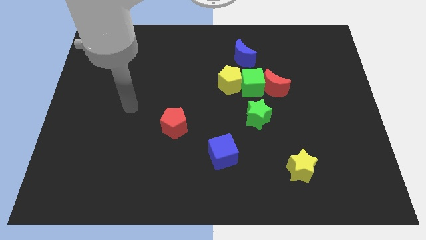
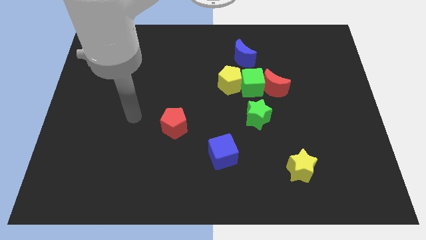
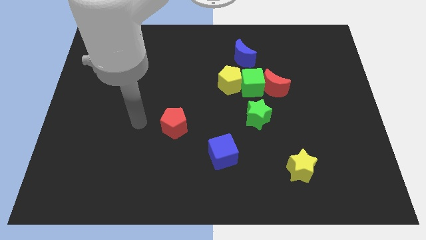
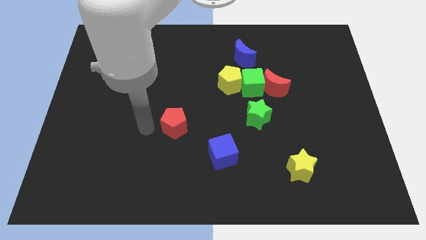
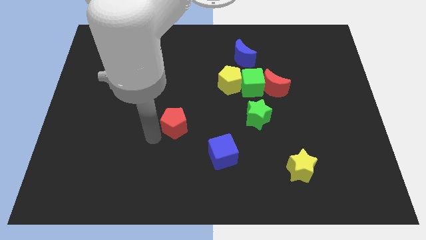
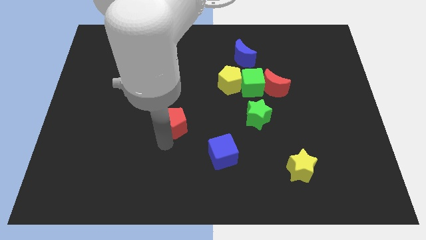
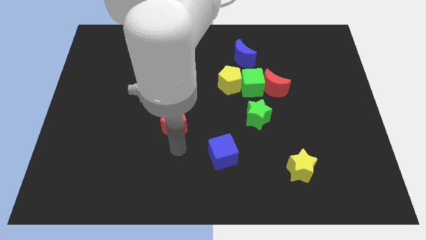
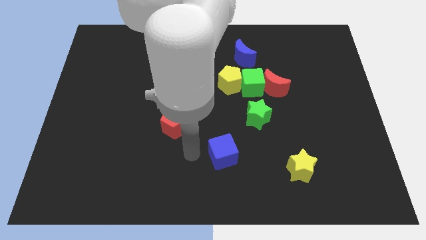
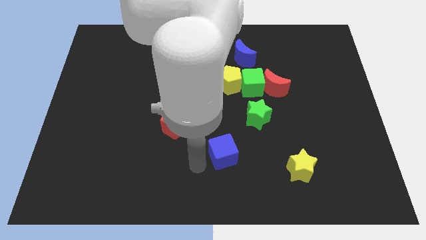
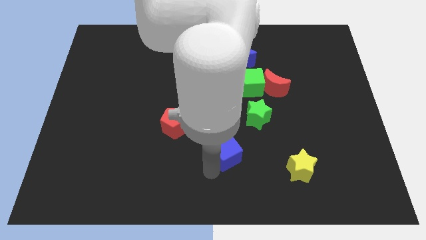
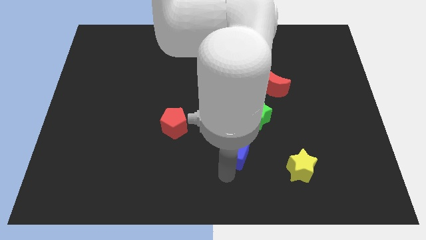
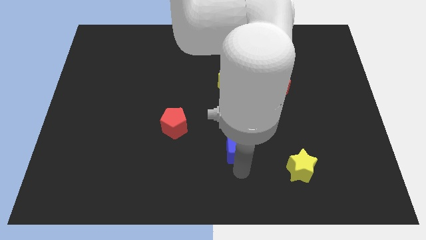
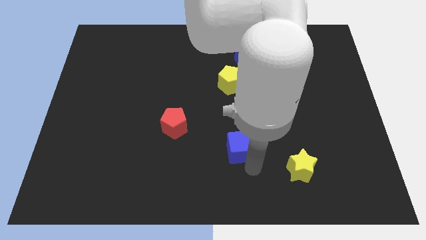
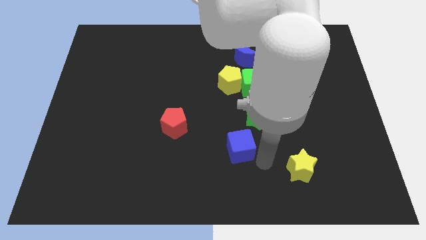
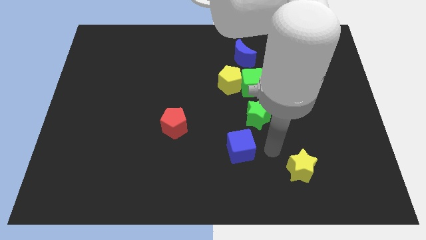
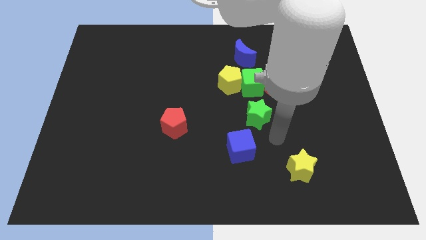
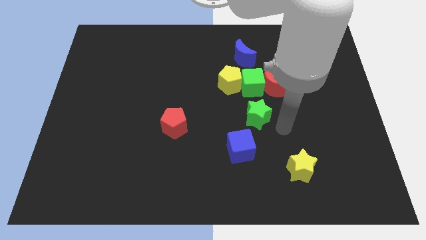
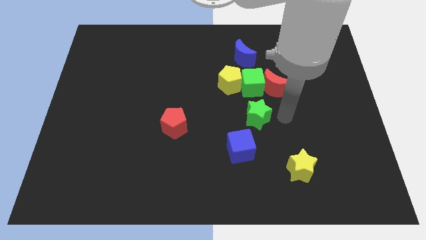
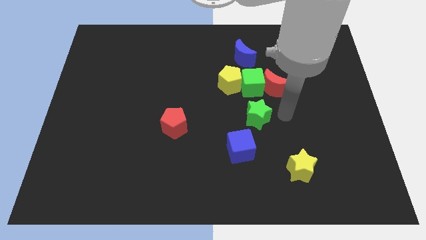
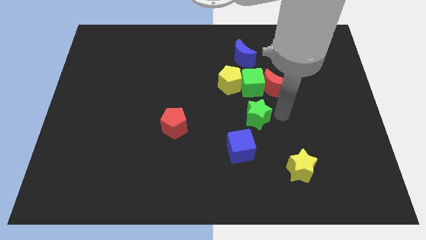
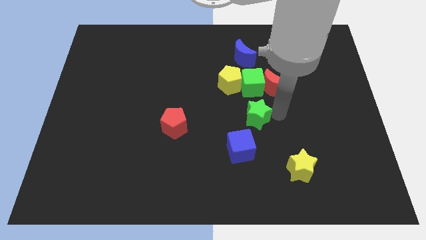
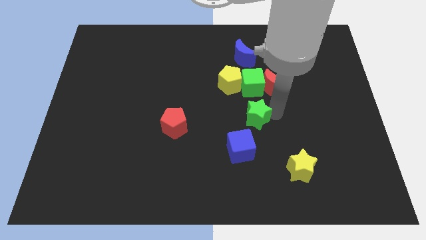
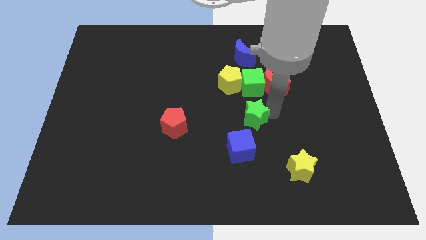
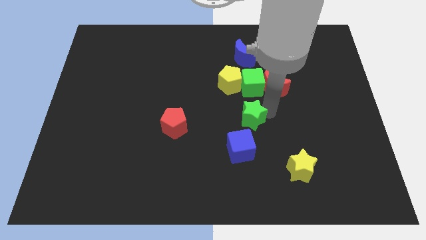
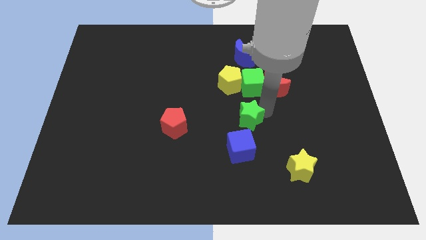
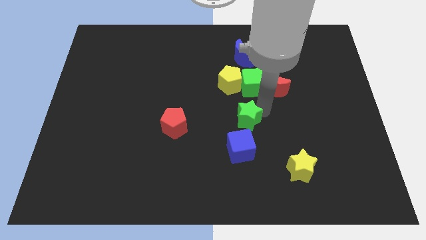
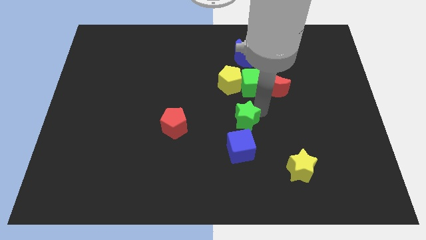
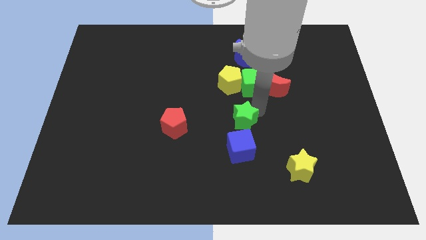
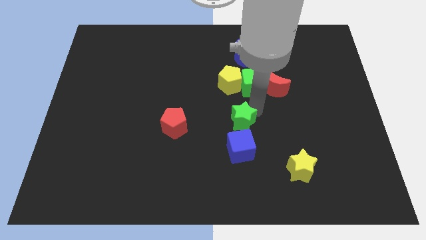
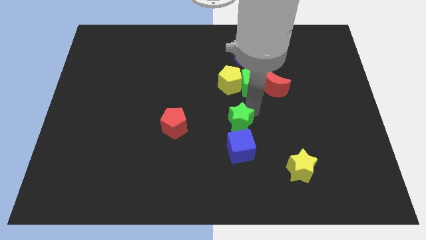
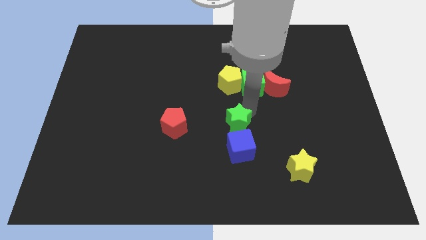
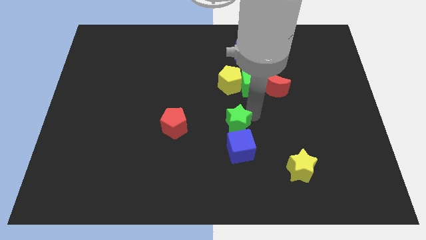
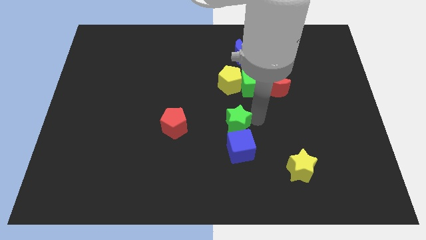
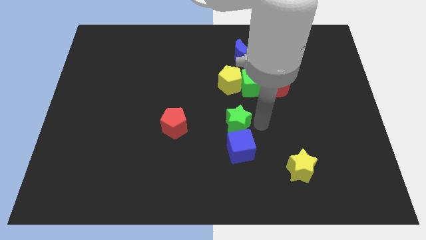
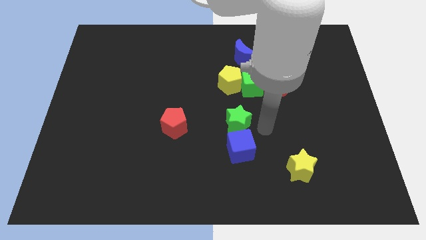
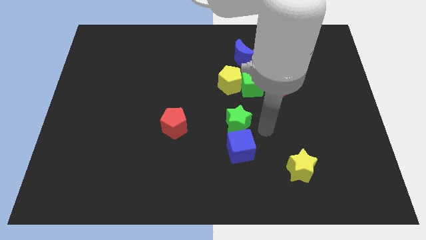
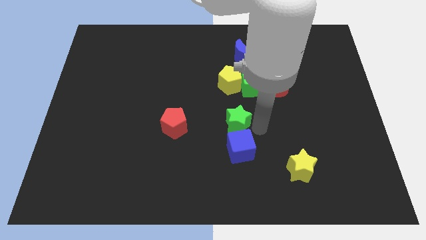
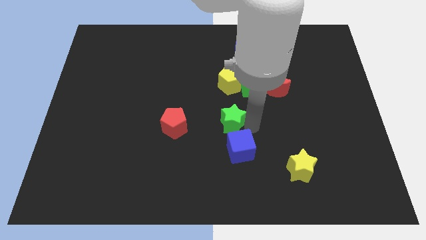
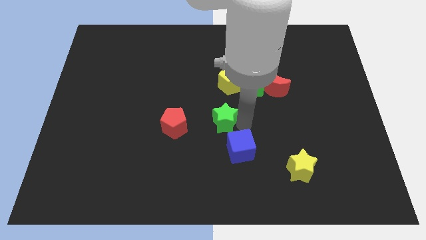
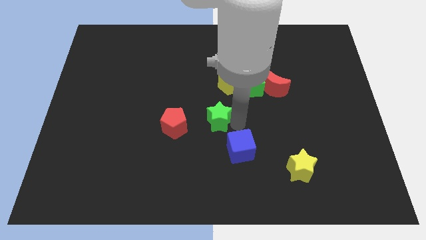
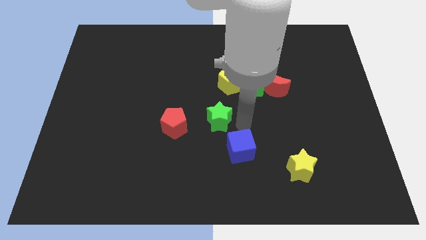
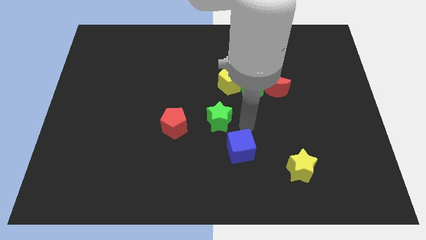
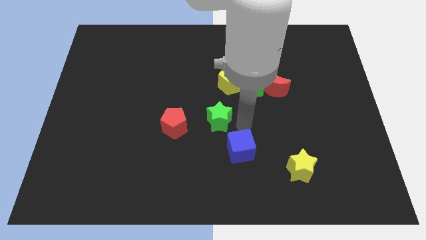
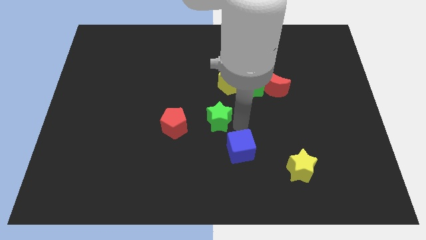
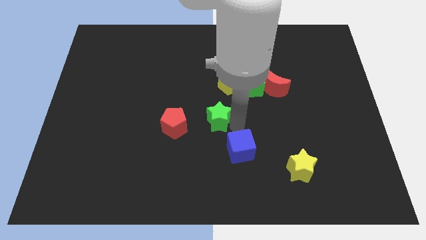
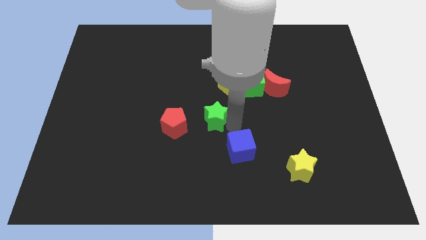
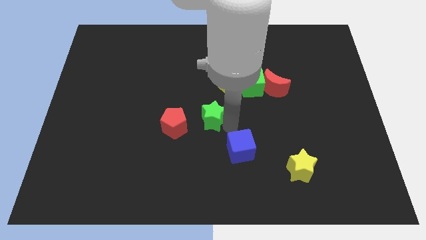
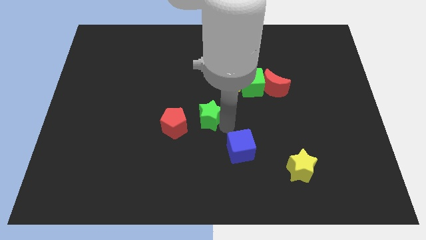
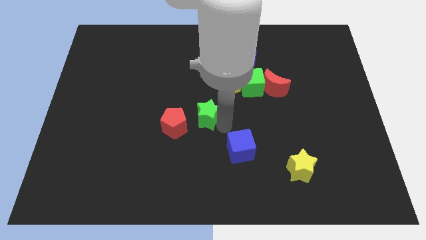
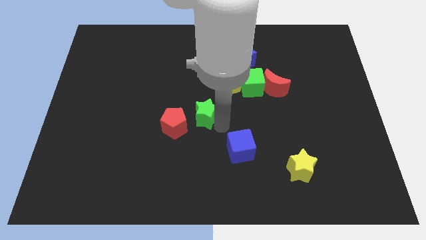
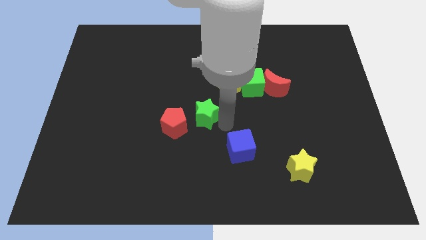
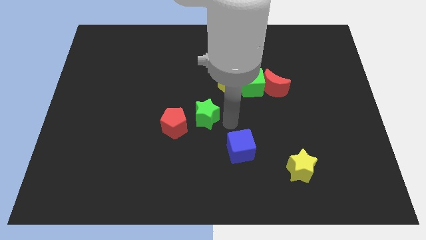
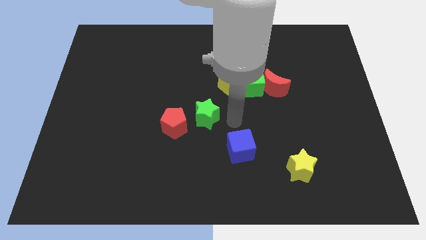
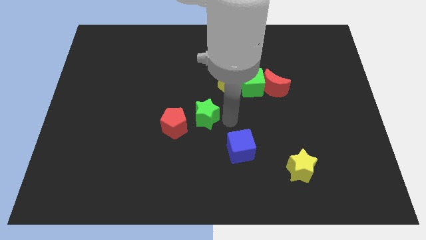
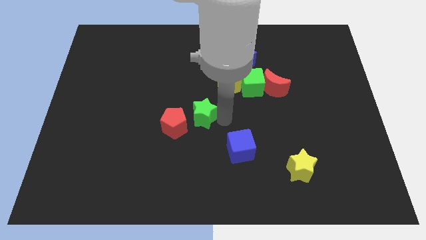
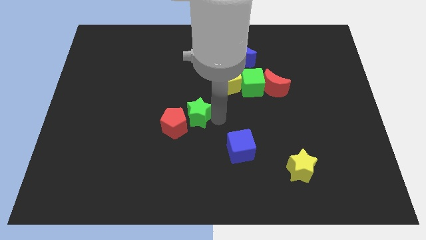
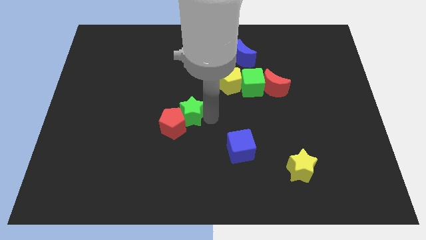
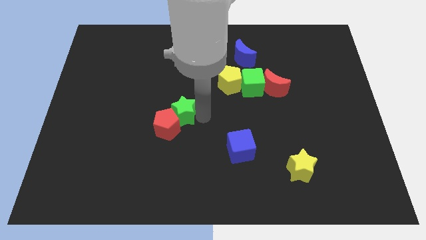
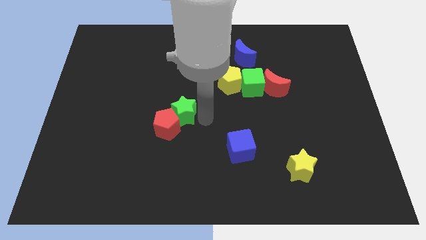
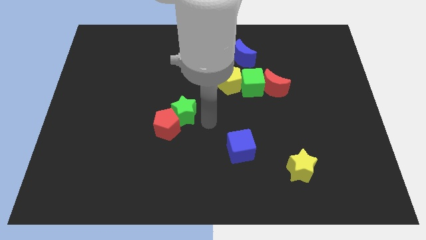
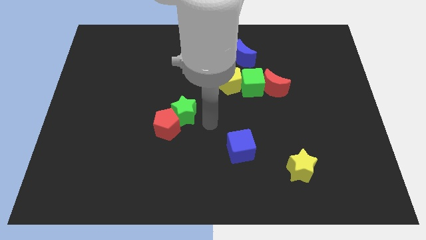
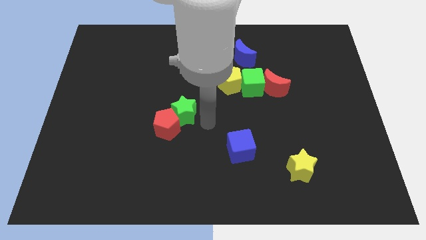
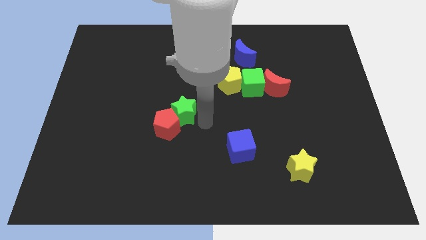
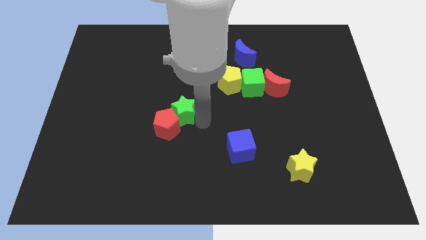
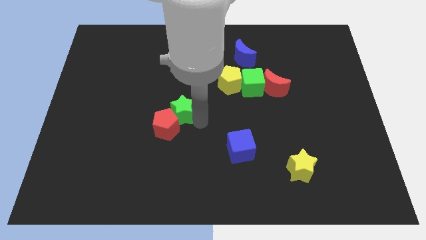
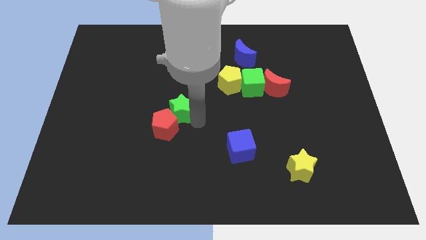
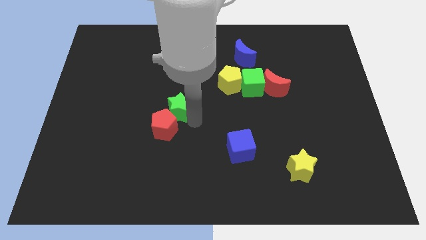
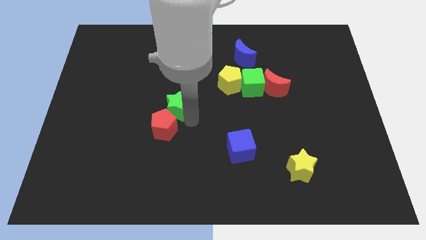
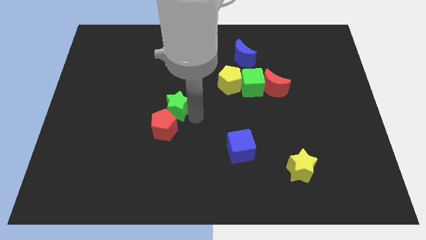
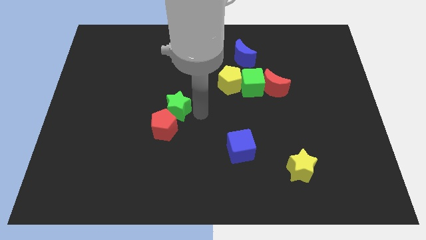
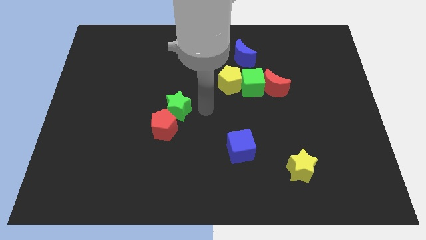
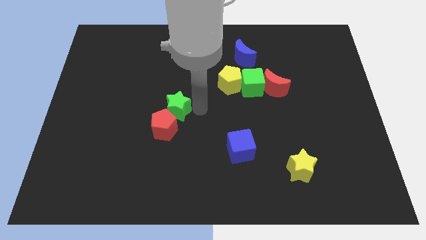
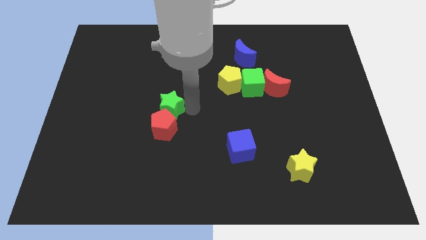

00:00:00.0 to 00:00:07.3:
move the green star left

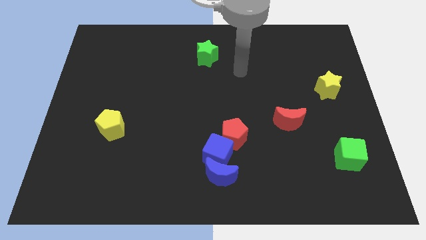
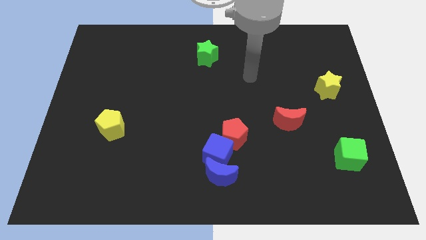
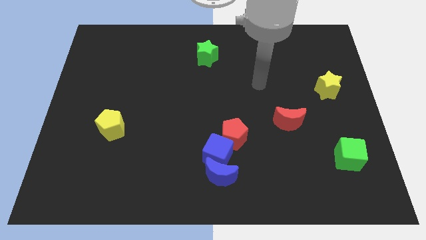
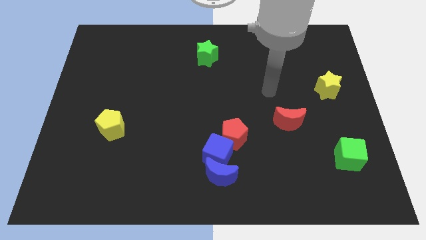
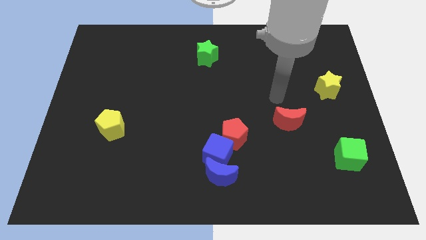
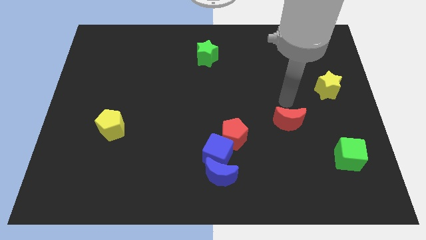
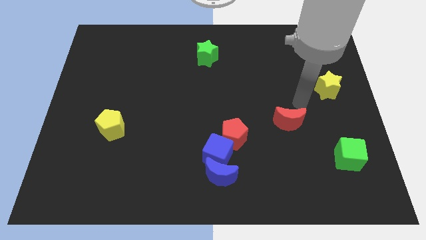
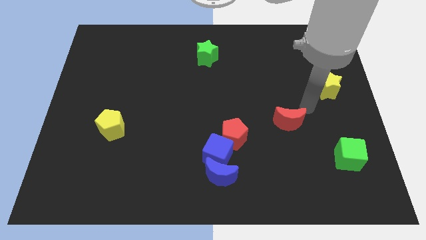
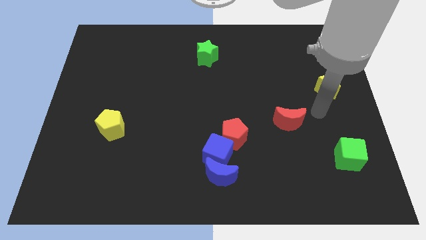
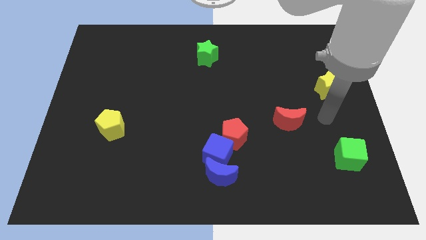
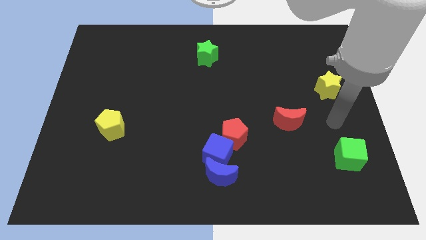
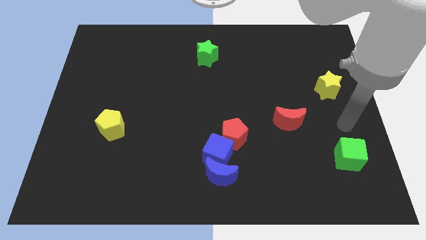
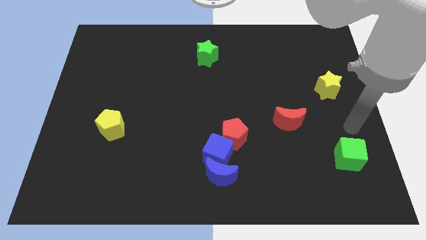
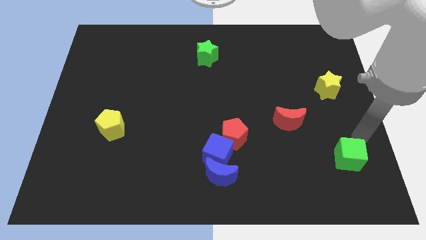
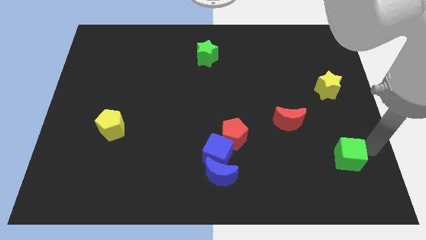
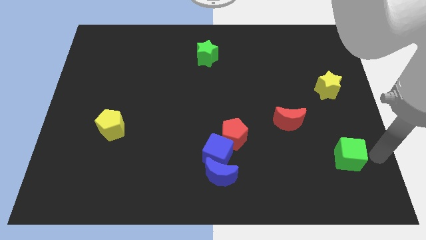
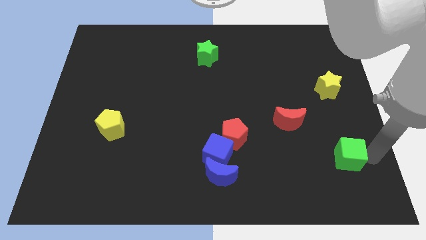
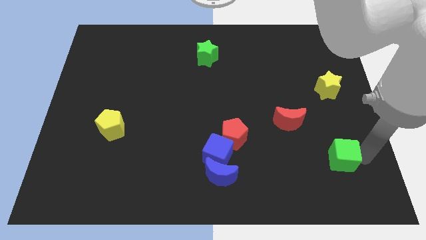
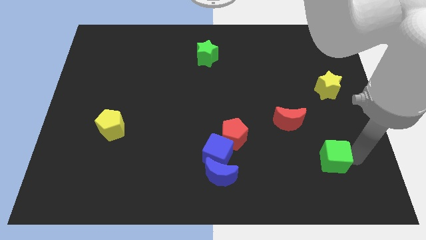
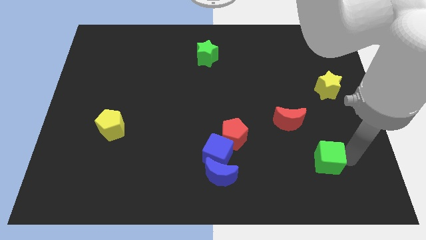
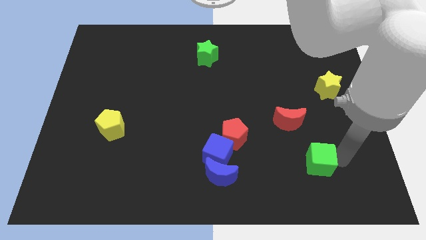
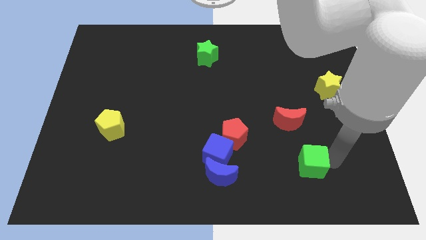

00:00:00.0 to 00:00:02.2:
move the green cube a little bit left
